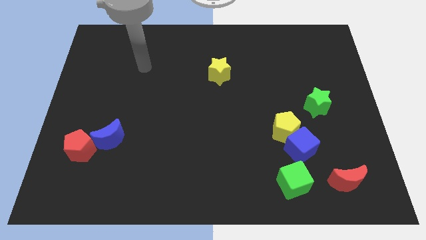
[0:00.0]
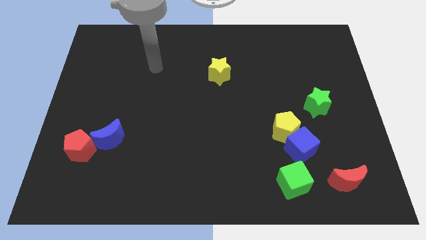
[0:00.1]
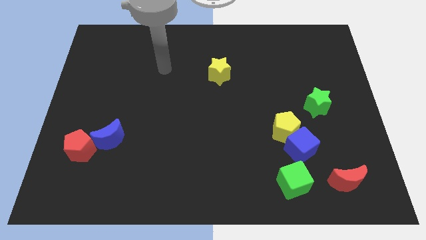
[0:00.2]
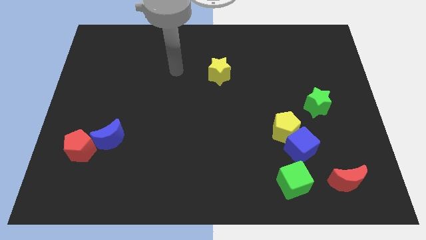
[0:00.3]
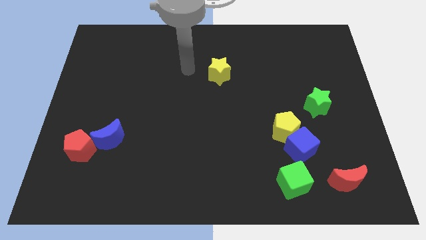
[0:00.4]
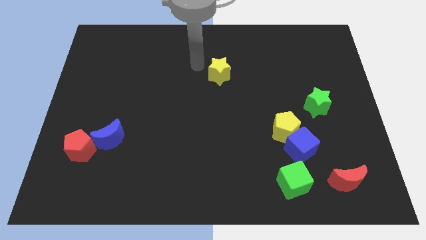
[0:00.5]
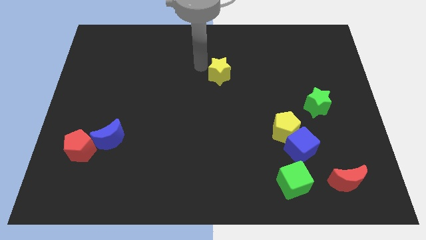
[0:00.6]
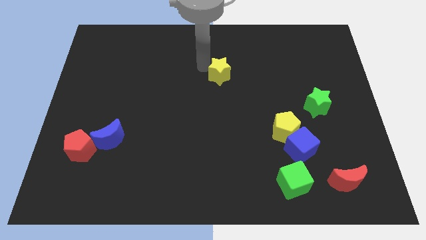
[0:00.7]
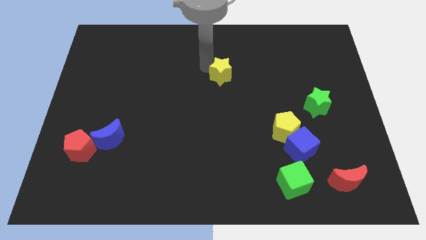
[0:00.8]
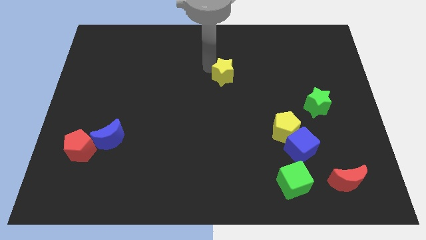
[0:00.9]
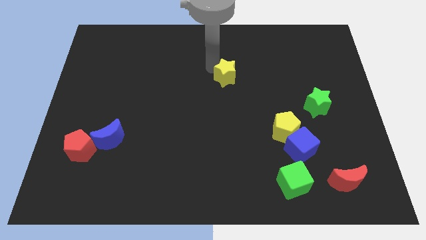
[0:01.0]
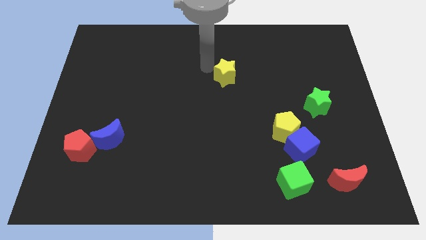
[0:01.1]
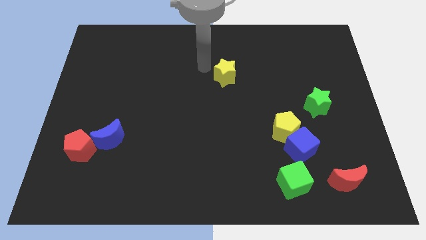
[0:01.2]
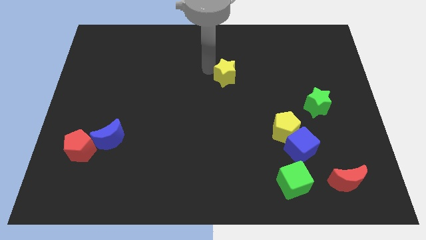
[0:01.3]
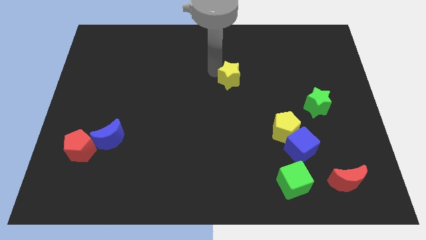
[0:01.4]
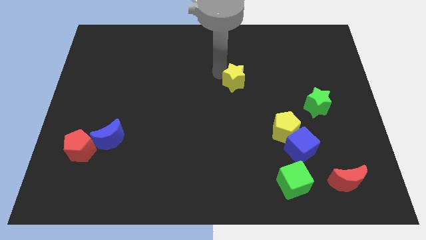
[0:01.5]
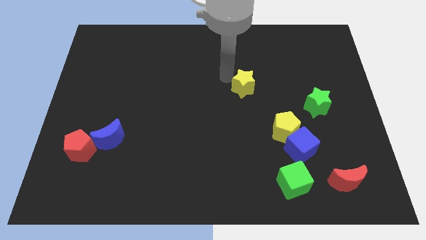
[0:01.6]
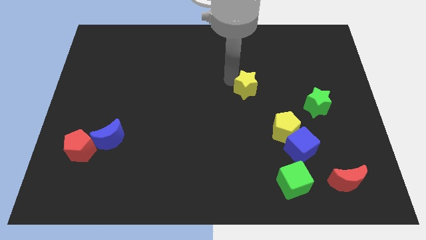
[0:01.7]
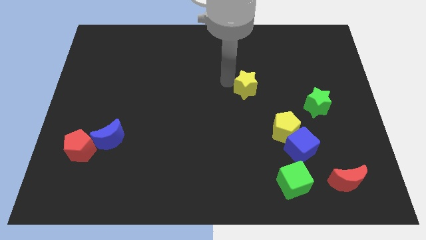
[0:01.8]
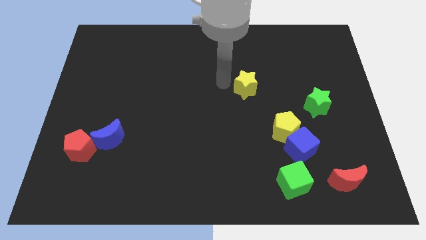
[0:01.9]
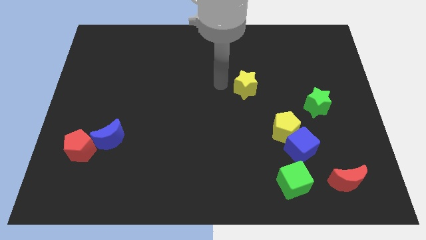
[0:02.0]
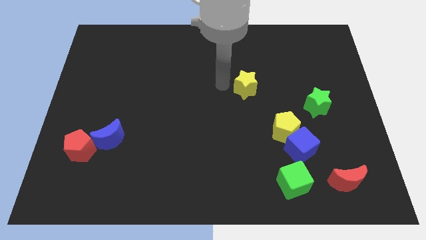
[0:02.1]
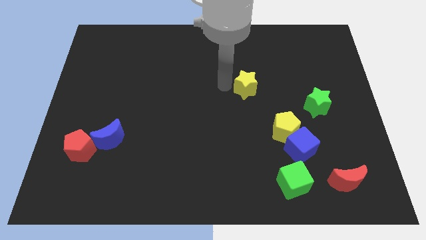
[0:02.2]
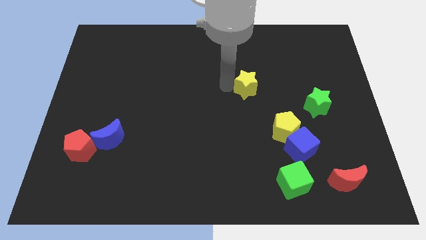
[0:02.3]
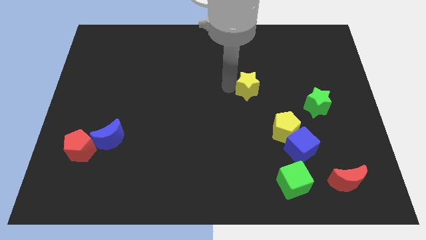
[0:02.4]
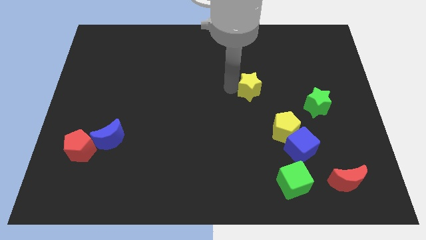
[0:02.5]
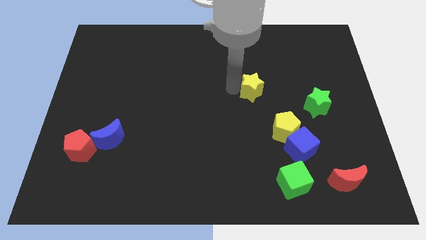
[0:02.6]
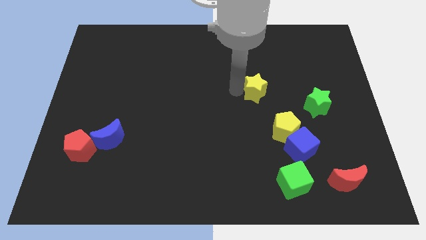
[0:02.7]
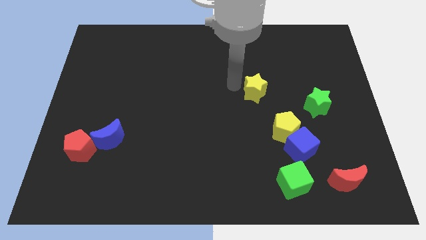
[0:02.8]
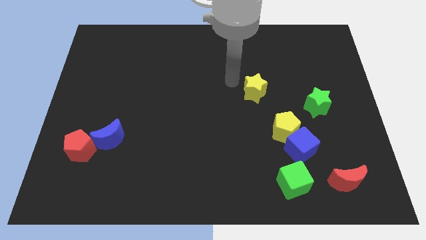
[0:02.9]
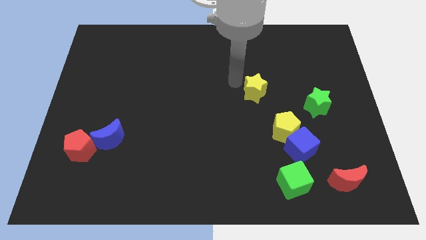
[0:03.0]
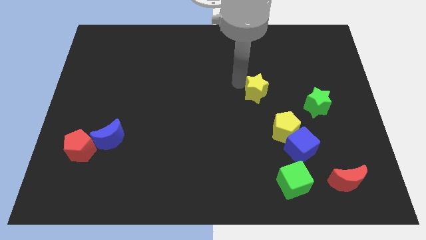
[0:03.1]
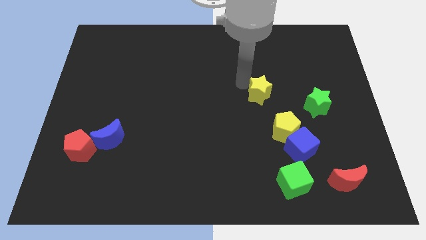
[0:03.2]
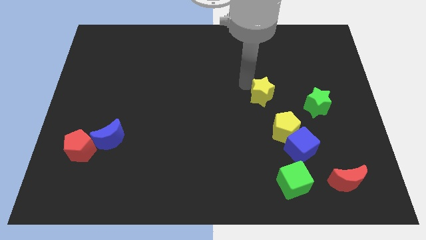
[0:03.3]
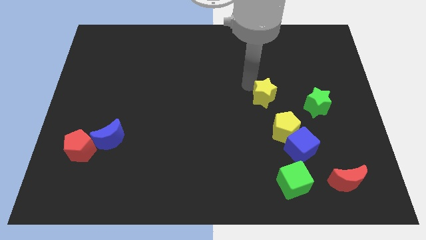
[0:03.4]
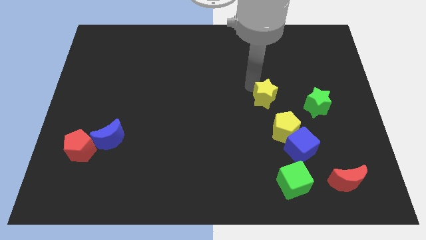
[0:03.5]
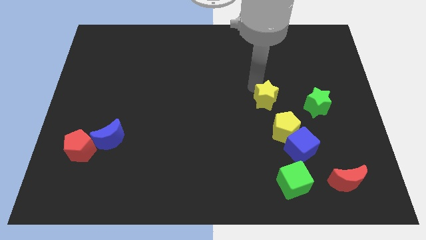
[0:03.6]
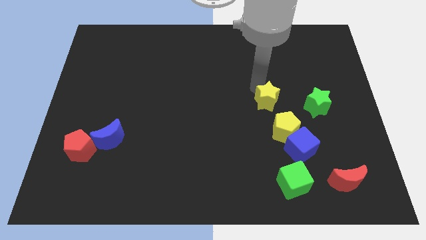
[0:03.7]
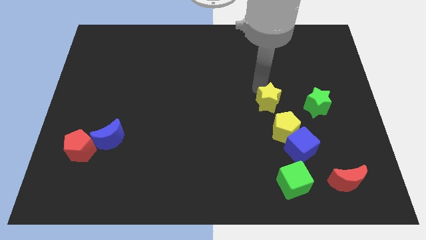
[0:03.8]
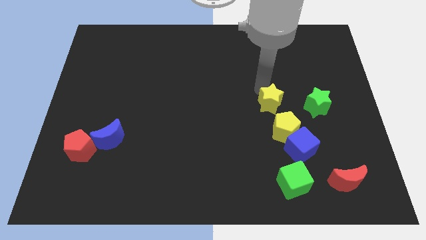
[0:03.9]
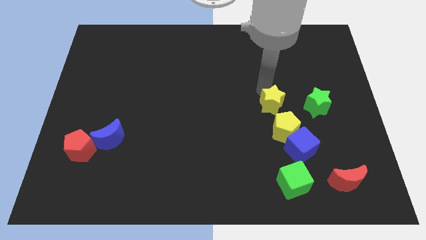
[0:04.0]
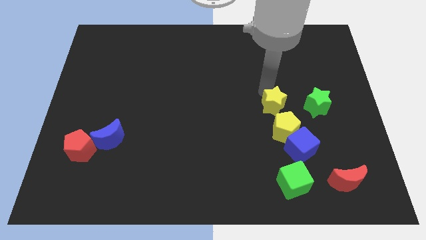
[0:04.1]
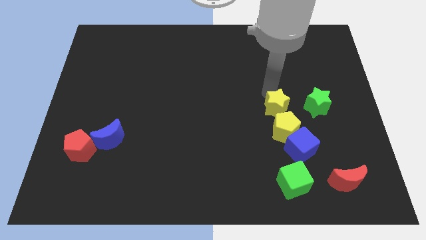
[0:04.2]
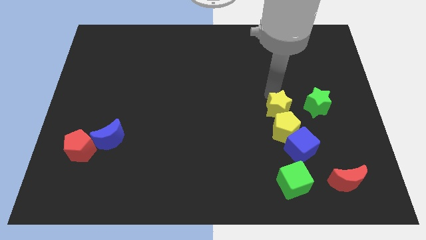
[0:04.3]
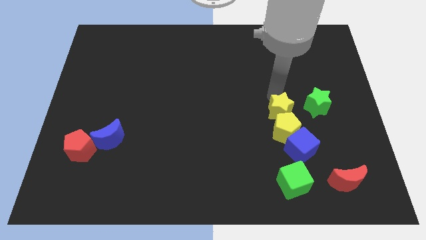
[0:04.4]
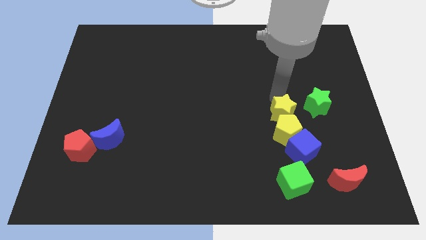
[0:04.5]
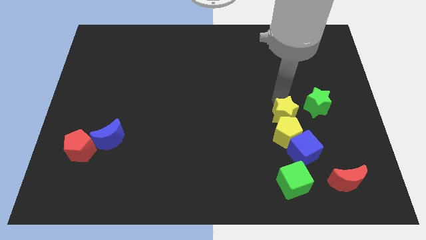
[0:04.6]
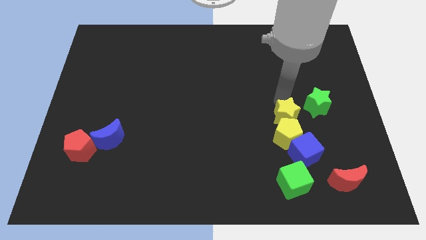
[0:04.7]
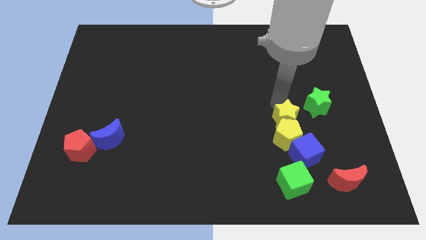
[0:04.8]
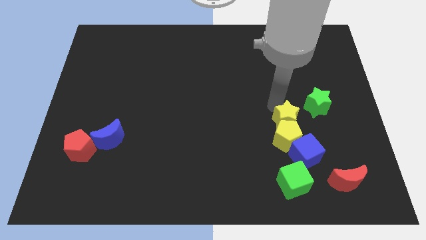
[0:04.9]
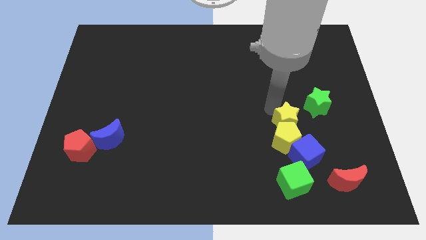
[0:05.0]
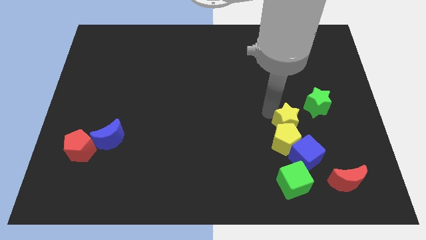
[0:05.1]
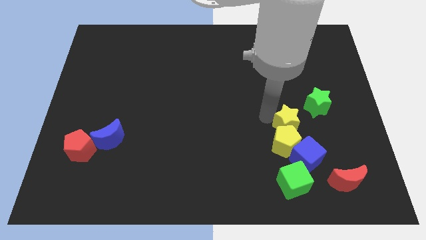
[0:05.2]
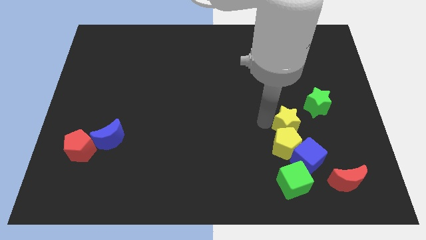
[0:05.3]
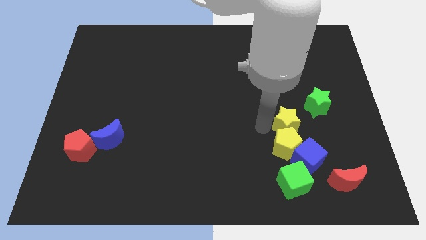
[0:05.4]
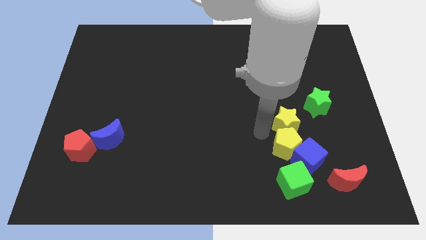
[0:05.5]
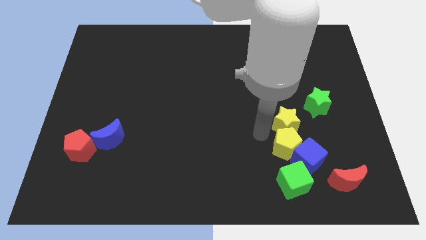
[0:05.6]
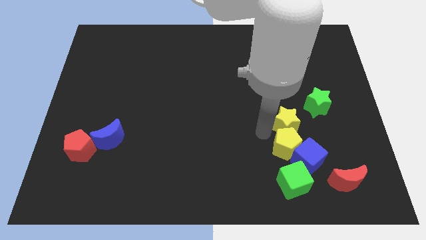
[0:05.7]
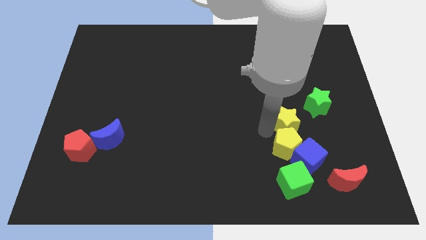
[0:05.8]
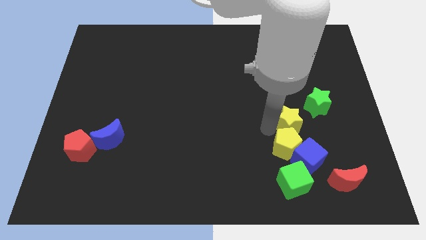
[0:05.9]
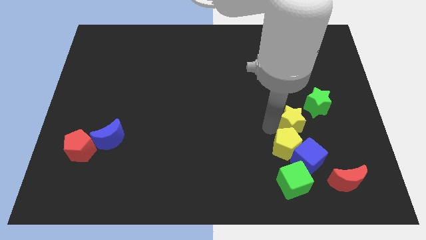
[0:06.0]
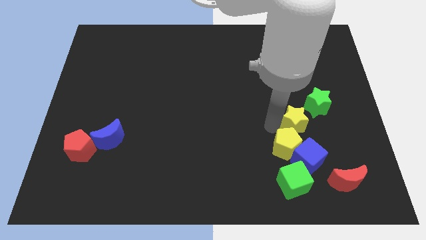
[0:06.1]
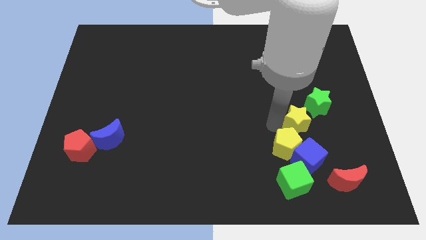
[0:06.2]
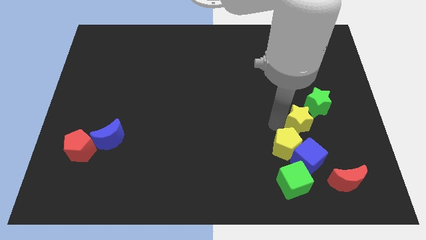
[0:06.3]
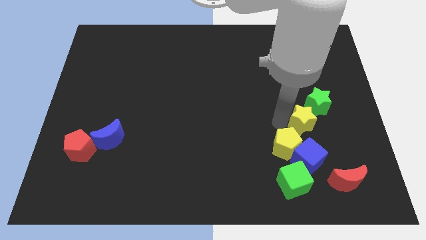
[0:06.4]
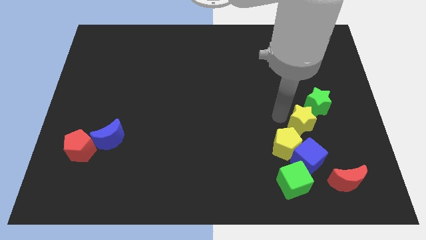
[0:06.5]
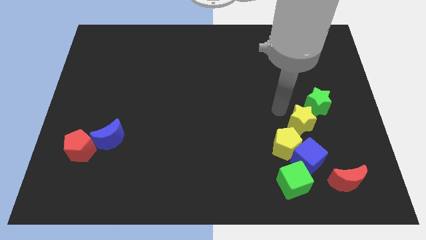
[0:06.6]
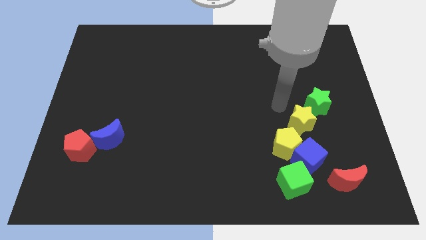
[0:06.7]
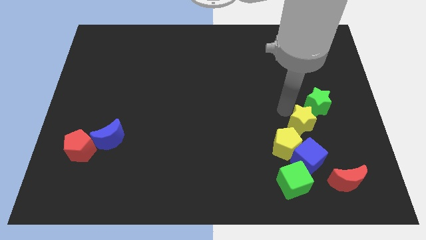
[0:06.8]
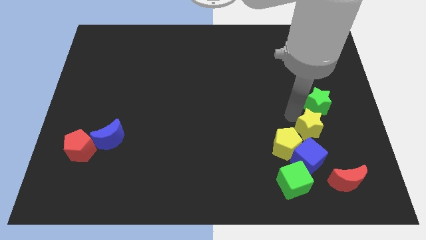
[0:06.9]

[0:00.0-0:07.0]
slide the yellow star right of the yellow pentagon
